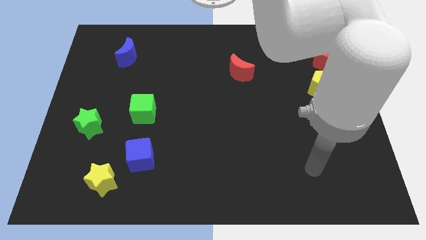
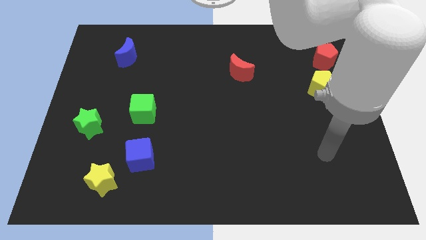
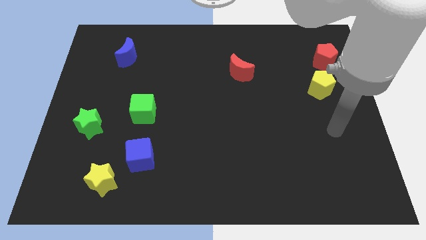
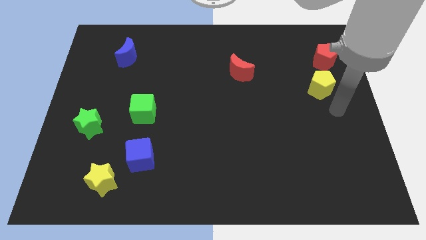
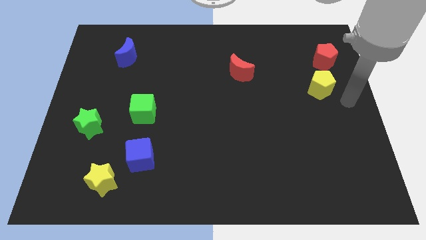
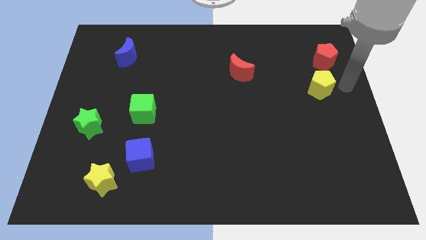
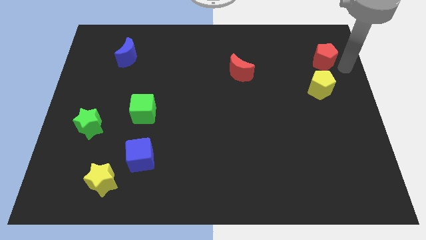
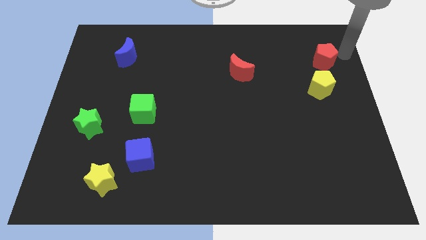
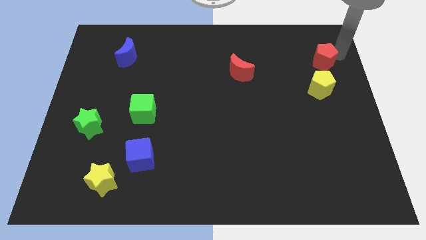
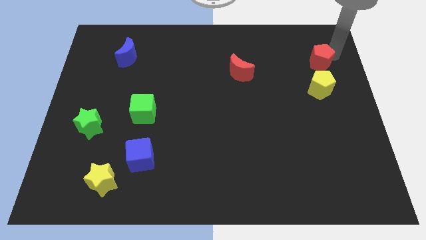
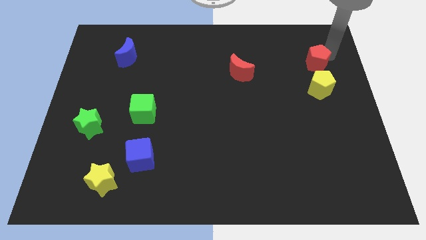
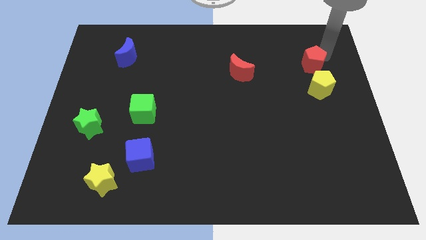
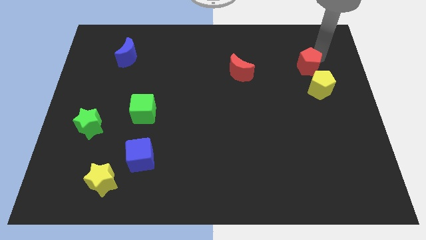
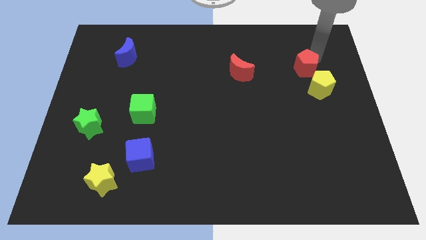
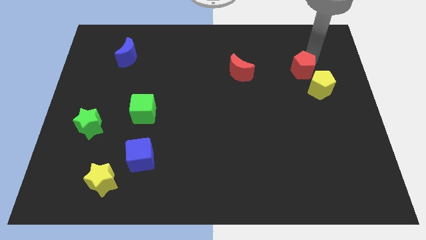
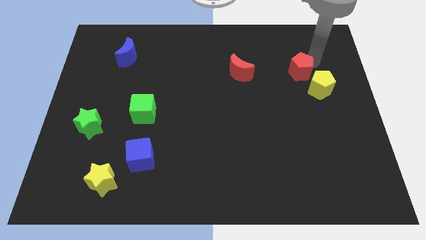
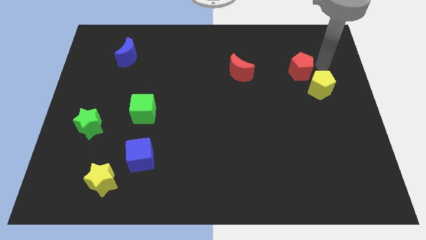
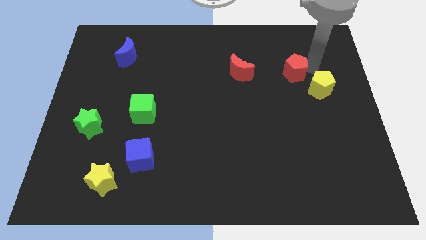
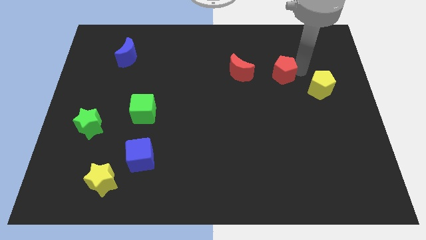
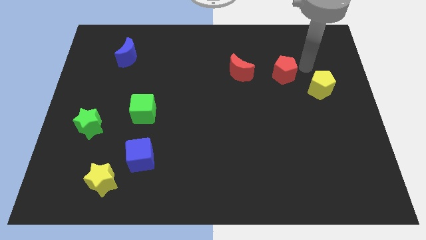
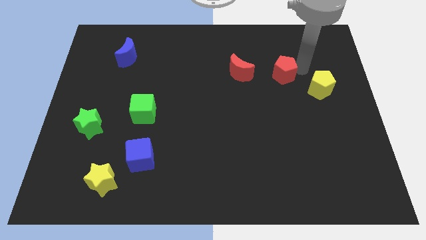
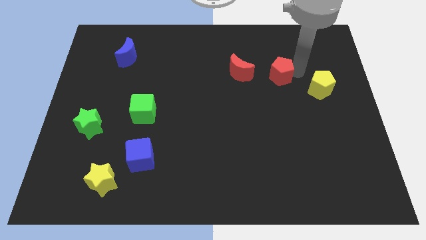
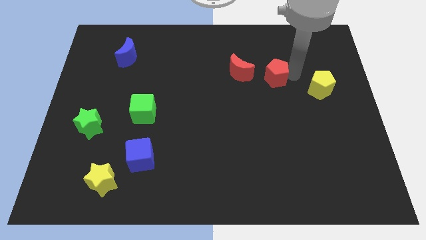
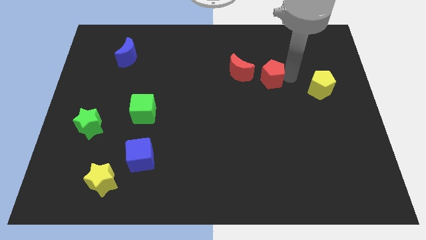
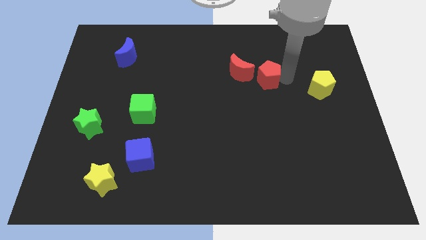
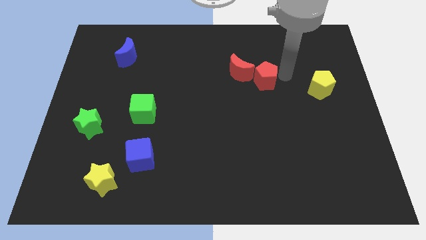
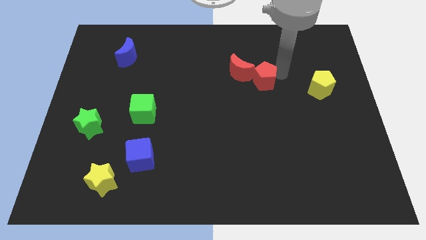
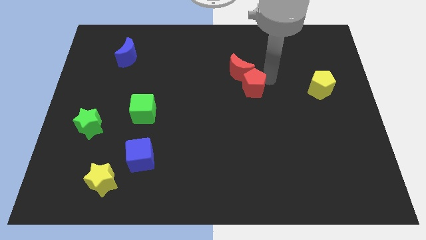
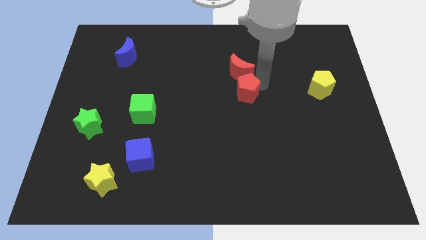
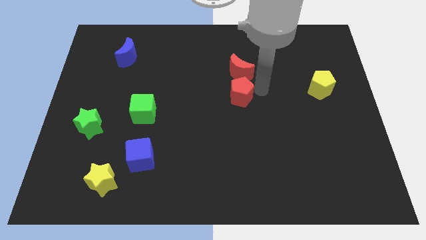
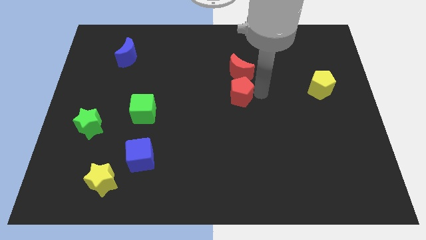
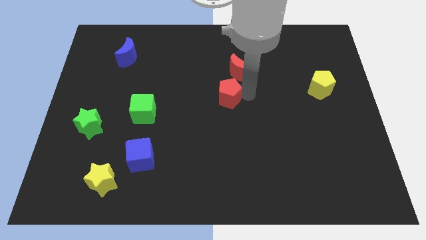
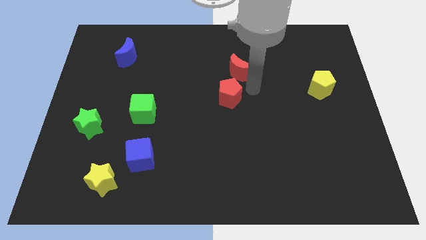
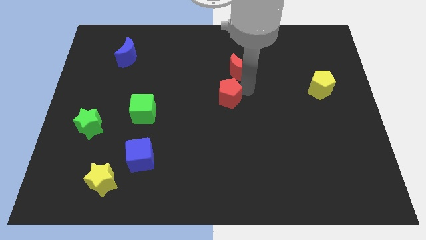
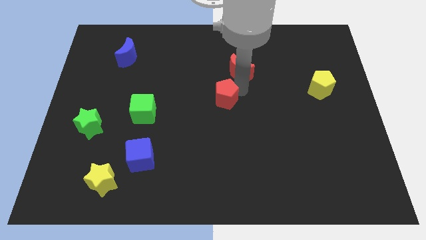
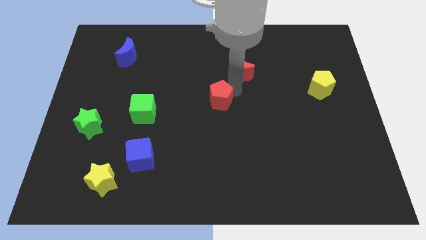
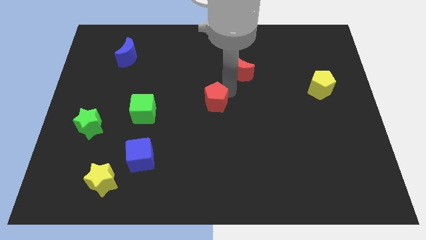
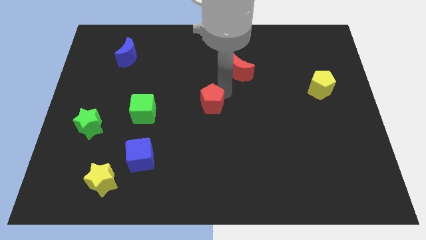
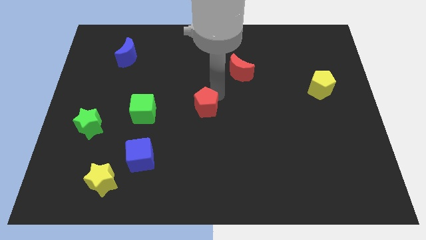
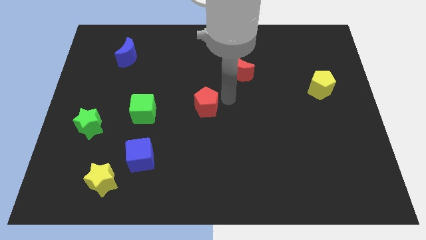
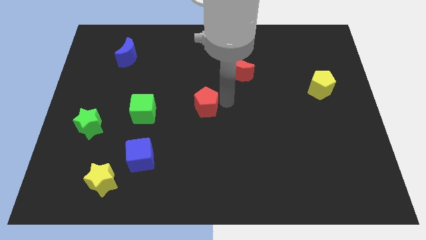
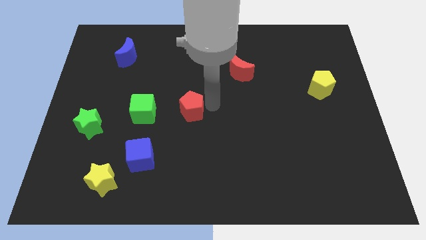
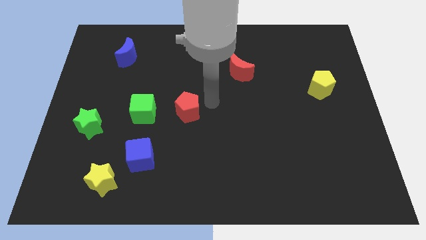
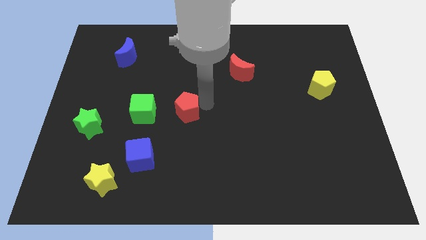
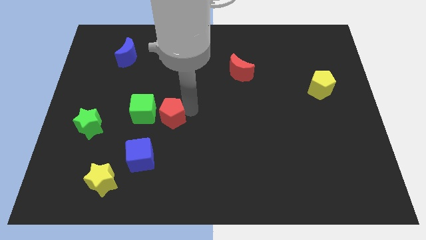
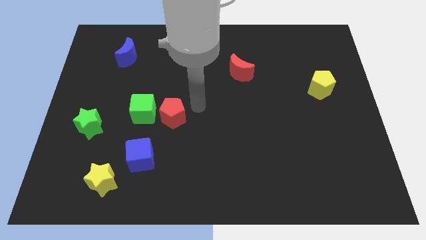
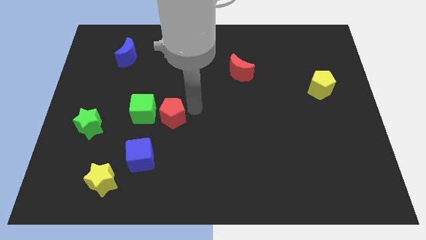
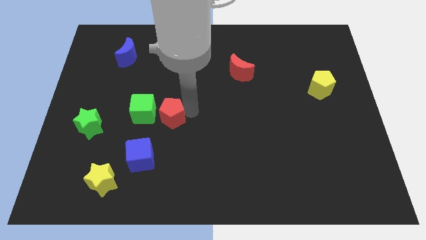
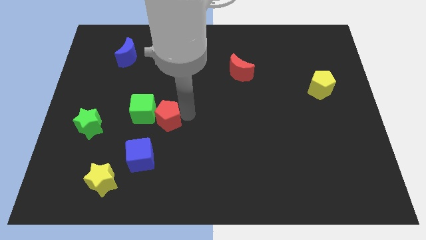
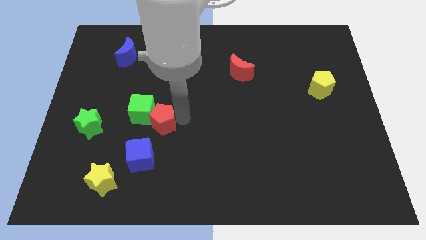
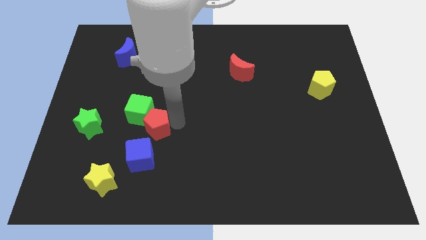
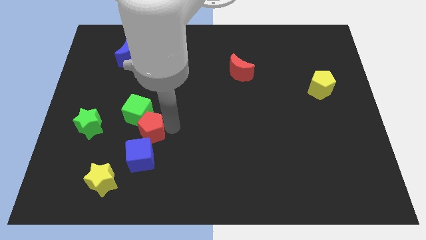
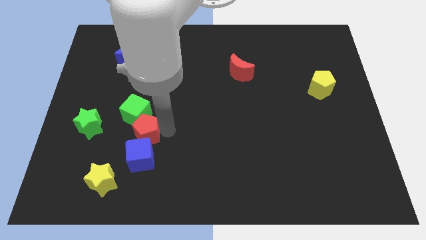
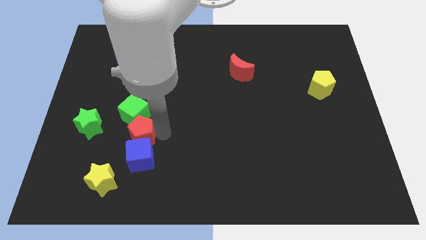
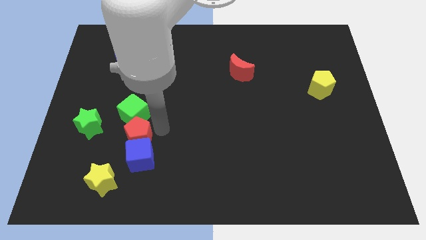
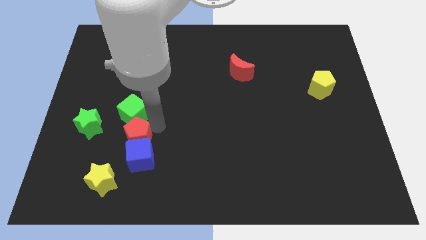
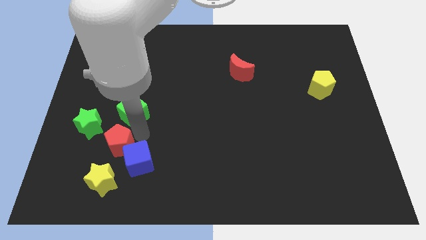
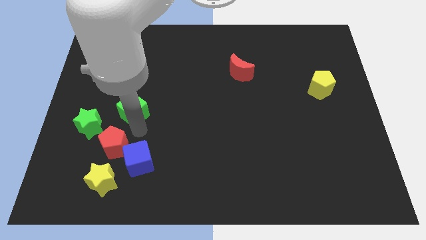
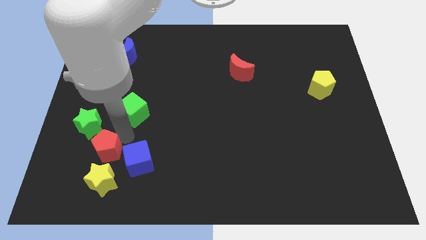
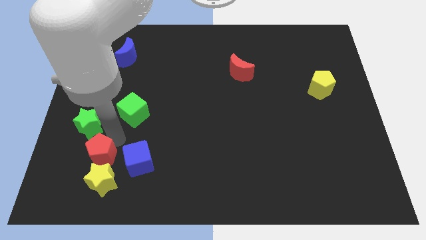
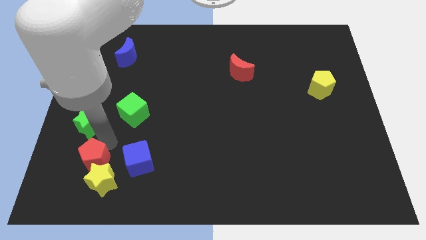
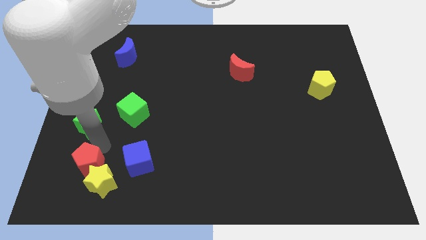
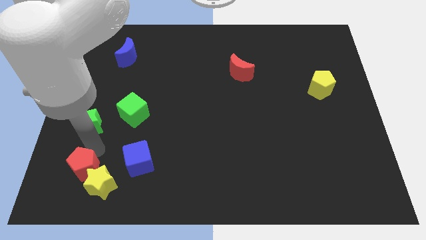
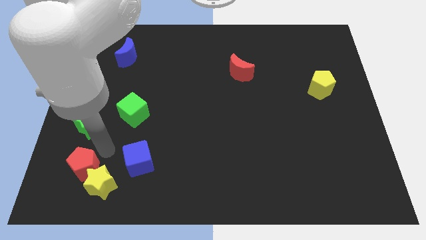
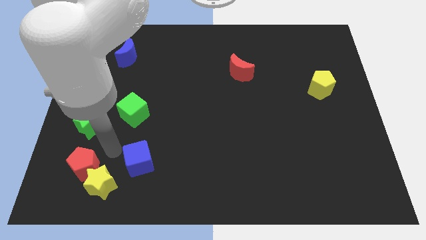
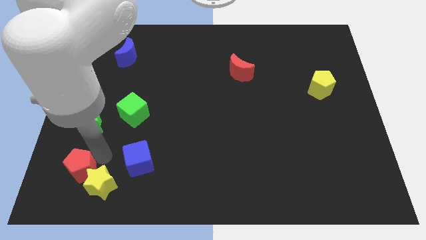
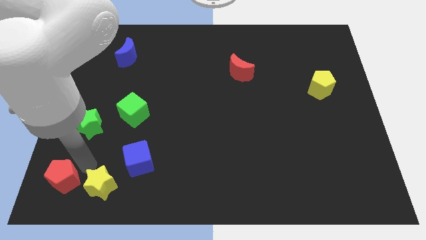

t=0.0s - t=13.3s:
push the red pentagon to the bottom left

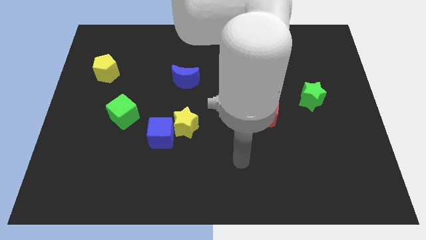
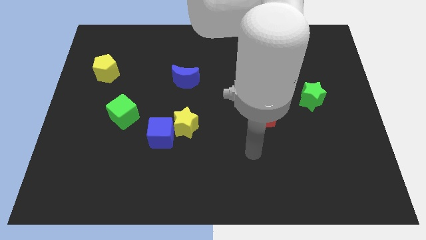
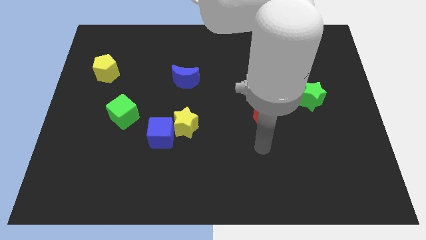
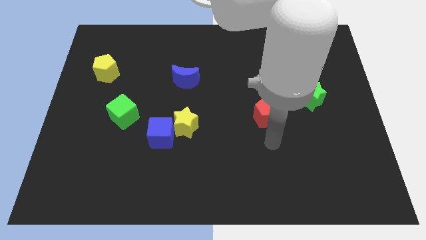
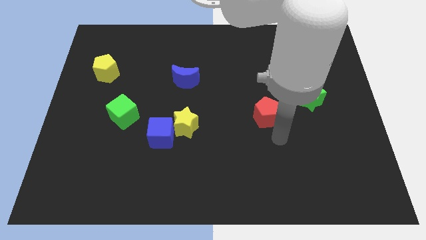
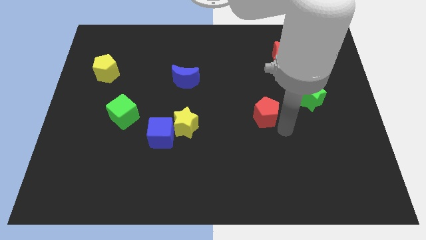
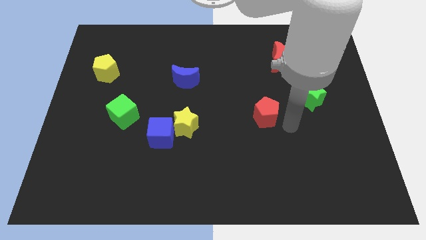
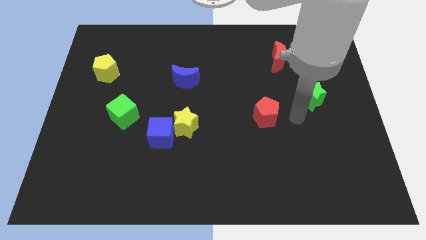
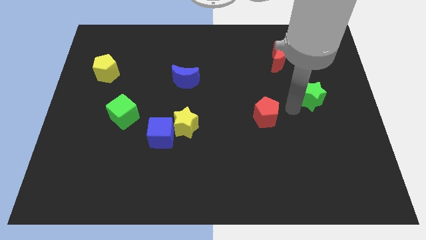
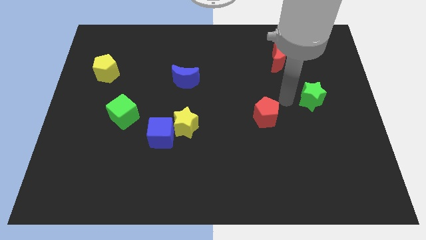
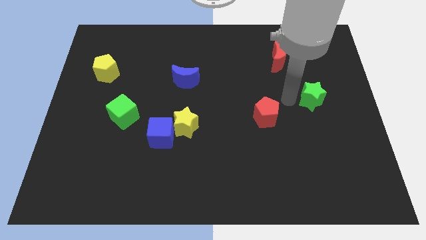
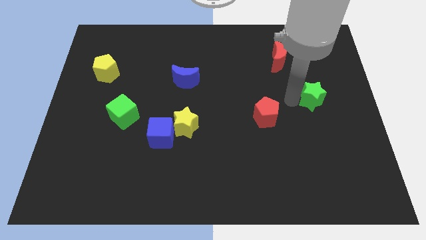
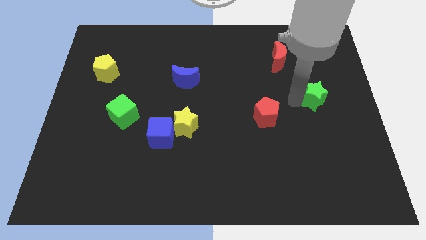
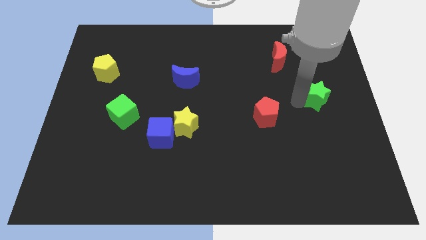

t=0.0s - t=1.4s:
slide the green star to the right side
